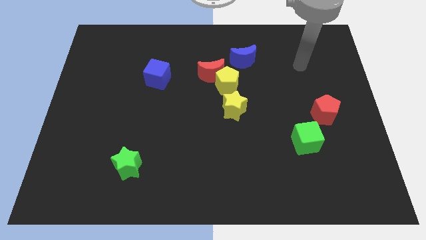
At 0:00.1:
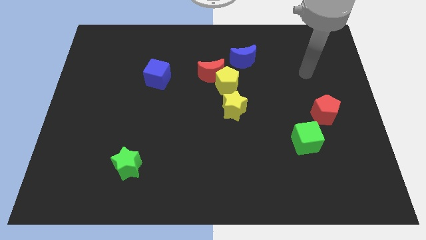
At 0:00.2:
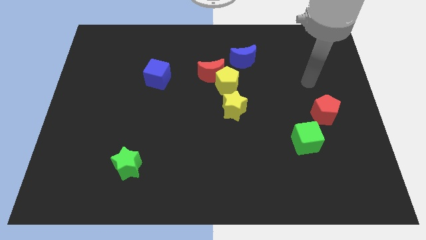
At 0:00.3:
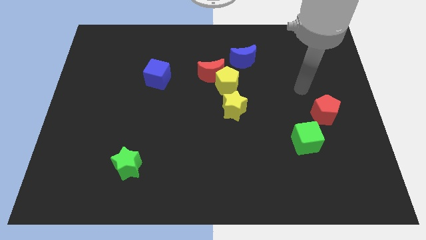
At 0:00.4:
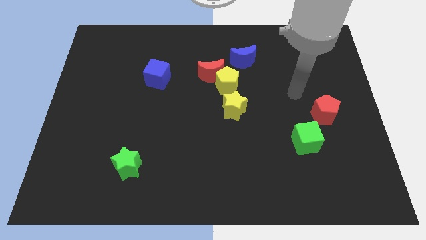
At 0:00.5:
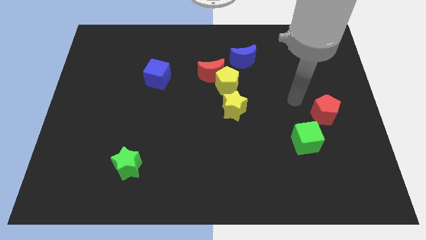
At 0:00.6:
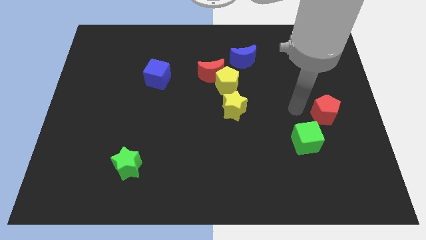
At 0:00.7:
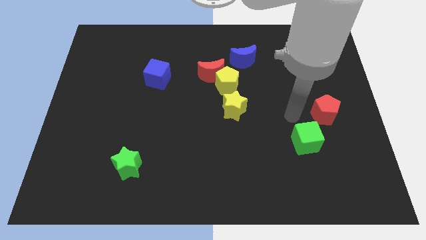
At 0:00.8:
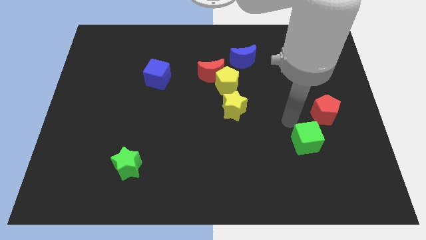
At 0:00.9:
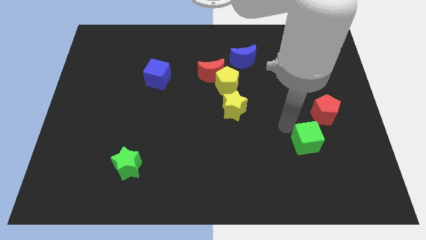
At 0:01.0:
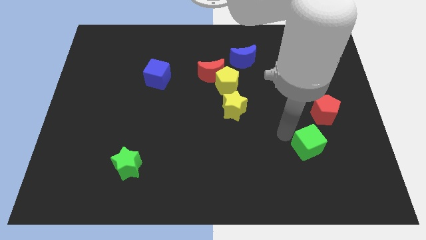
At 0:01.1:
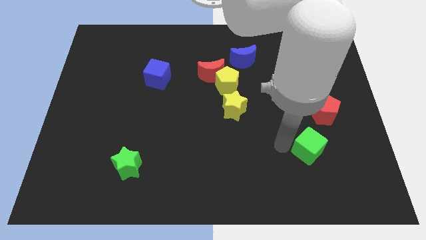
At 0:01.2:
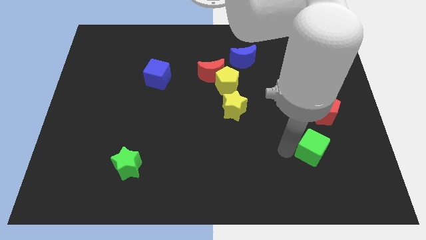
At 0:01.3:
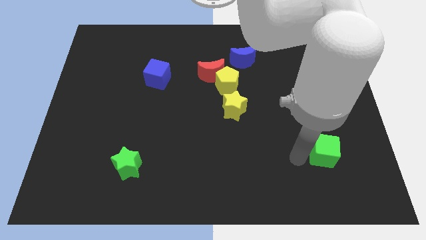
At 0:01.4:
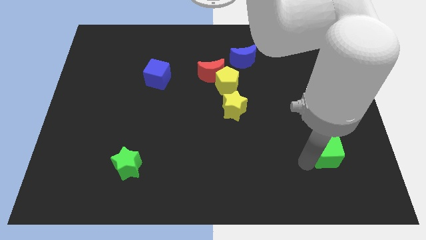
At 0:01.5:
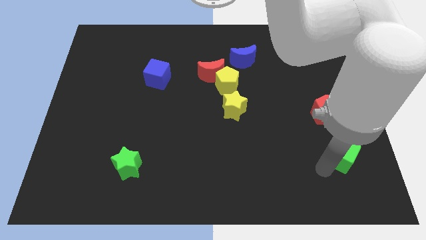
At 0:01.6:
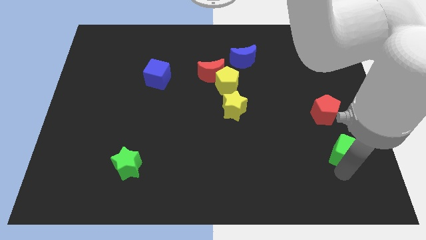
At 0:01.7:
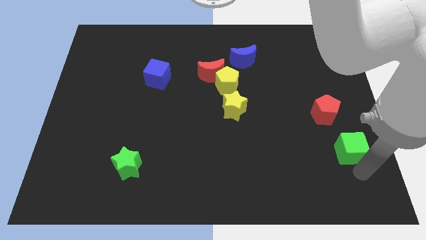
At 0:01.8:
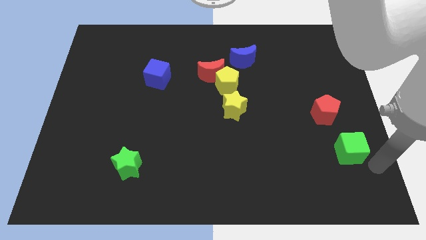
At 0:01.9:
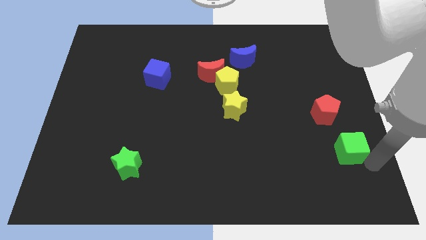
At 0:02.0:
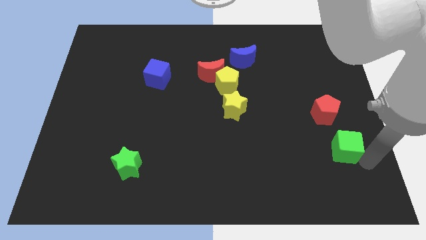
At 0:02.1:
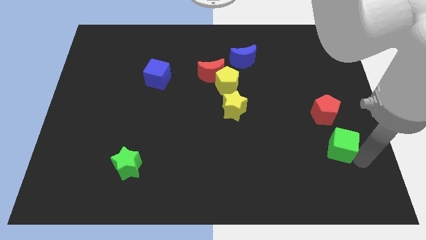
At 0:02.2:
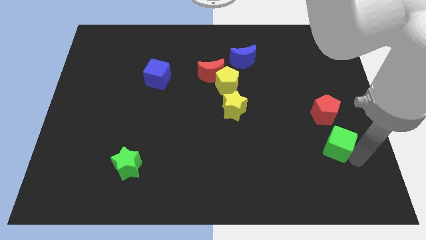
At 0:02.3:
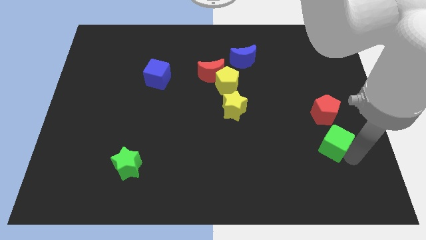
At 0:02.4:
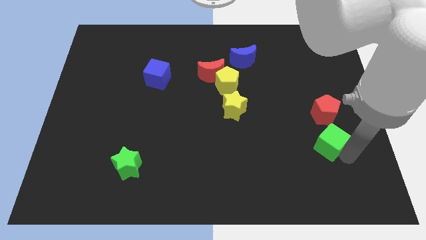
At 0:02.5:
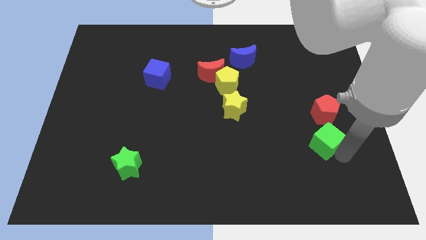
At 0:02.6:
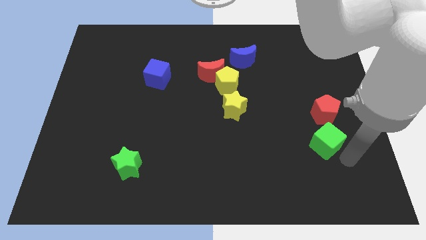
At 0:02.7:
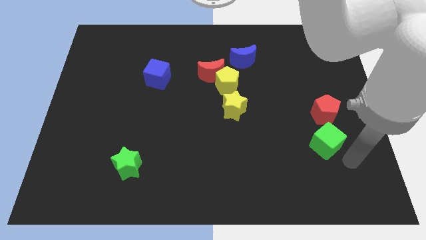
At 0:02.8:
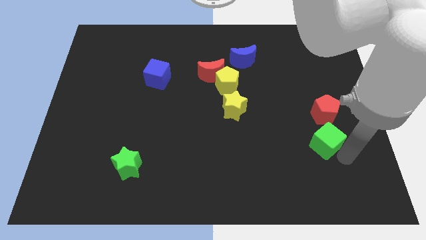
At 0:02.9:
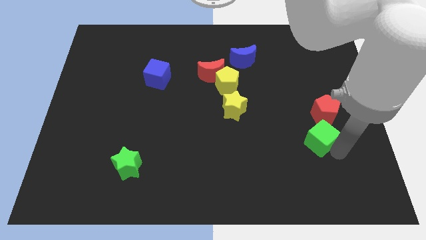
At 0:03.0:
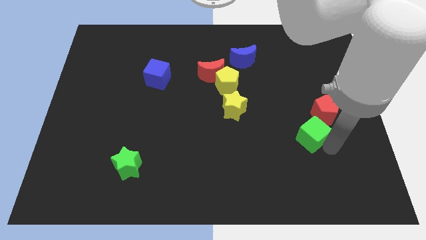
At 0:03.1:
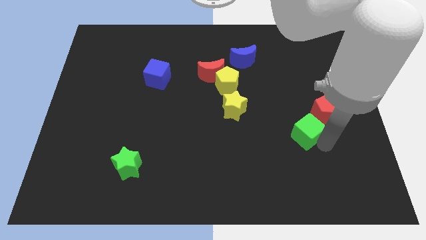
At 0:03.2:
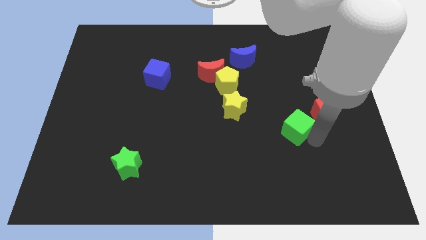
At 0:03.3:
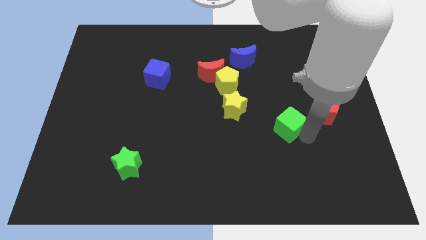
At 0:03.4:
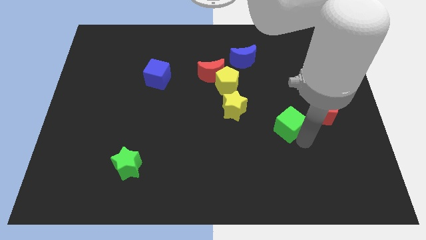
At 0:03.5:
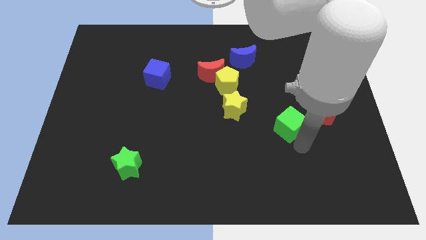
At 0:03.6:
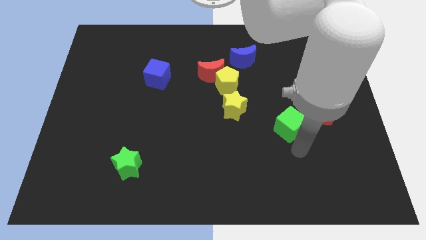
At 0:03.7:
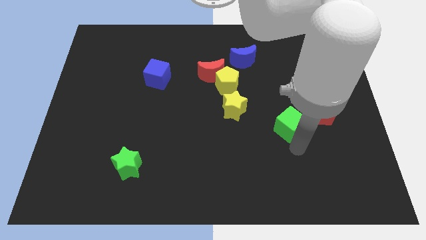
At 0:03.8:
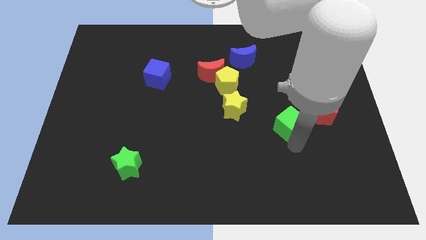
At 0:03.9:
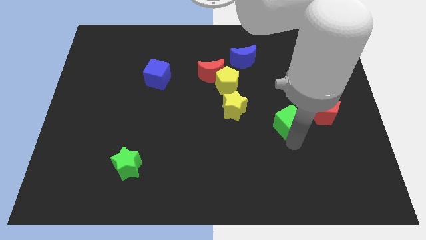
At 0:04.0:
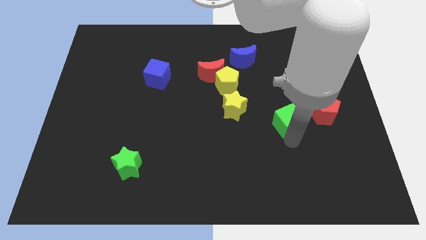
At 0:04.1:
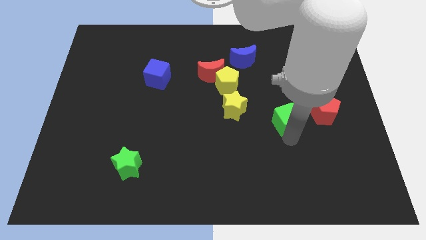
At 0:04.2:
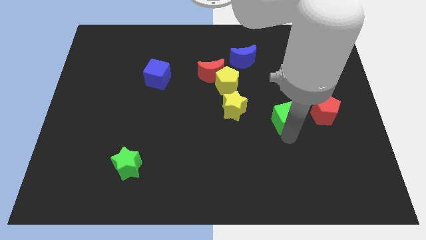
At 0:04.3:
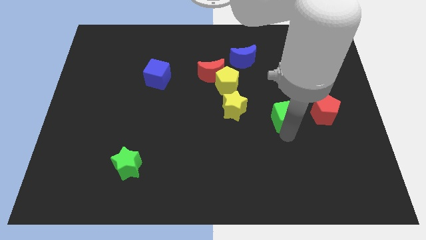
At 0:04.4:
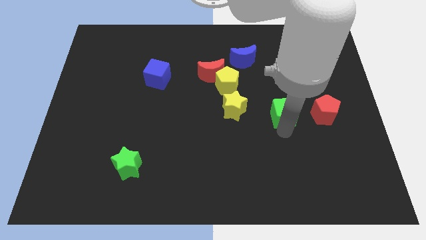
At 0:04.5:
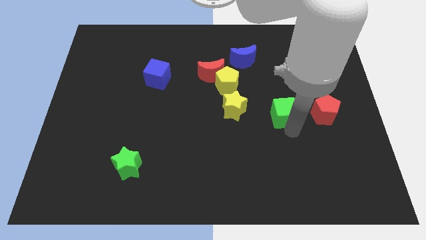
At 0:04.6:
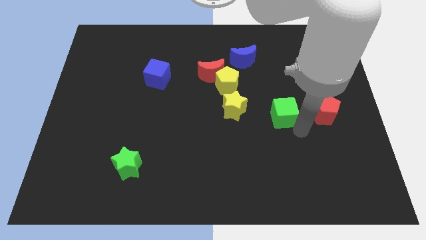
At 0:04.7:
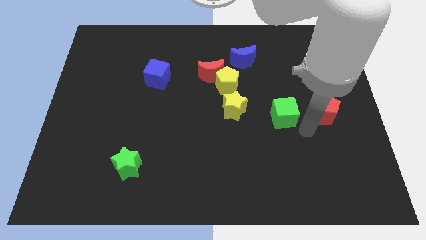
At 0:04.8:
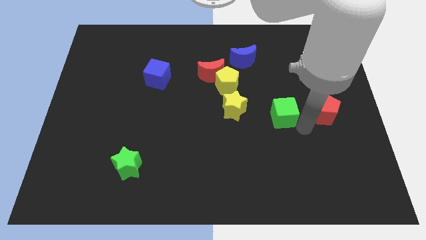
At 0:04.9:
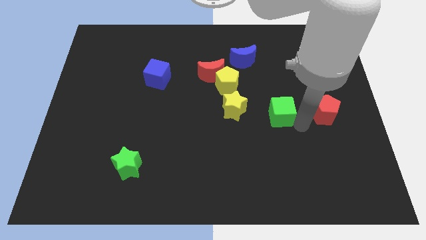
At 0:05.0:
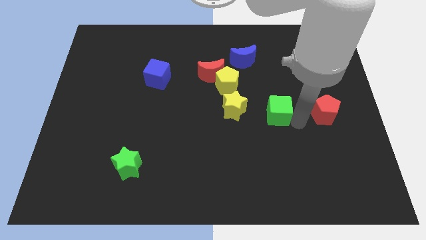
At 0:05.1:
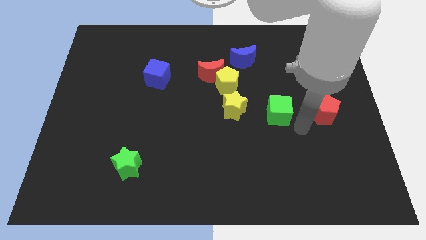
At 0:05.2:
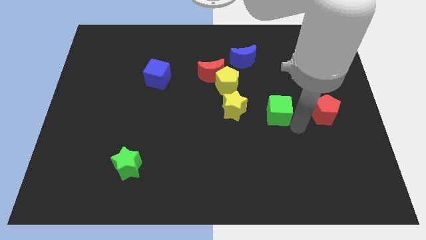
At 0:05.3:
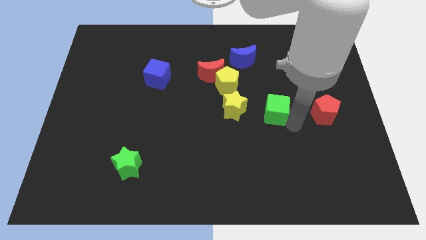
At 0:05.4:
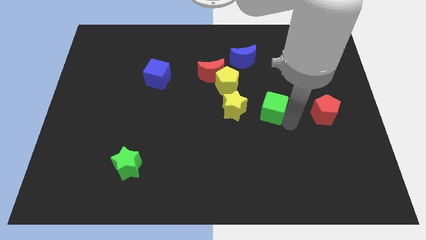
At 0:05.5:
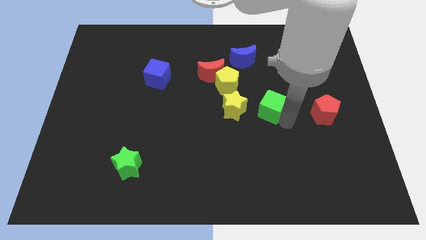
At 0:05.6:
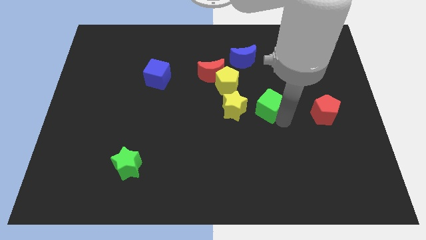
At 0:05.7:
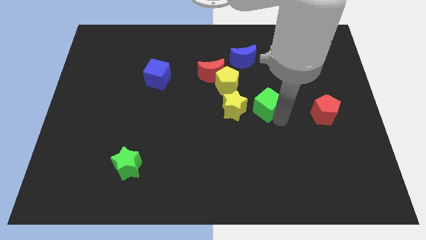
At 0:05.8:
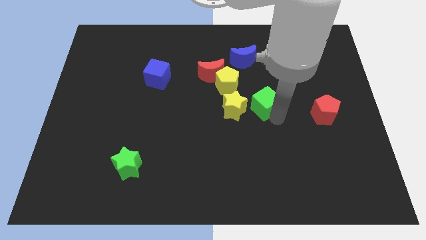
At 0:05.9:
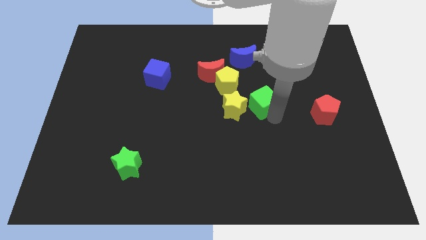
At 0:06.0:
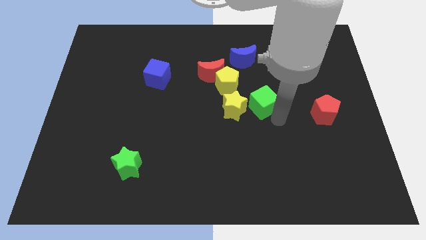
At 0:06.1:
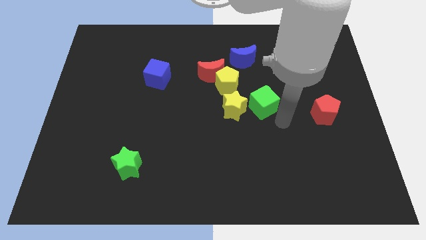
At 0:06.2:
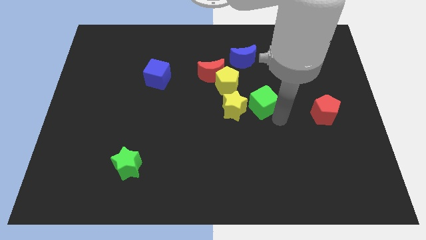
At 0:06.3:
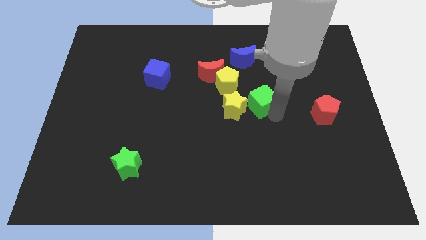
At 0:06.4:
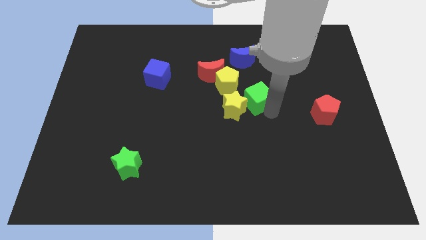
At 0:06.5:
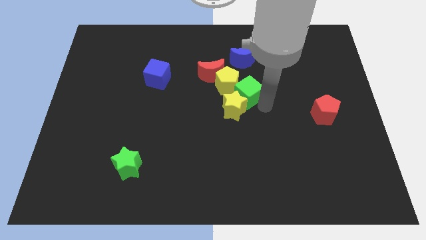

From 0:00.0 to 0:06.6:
move the green cube towards the yellow pentagon

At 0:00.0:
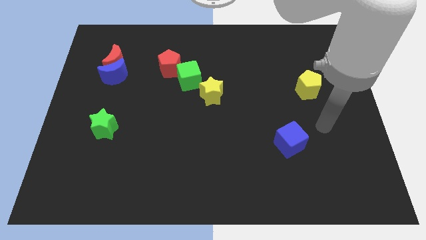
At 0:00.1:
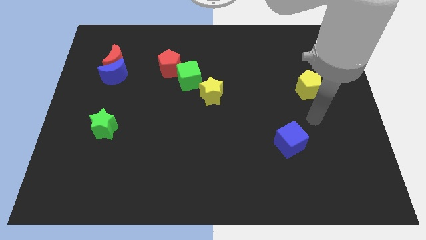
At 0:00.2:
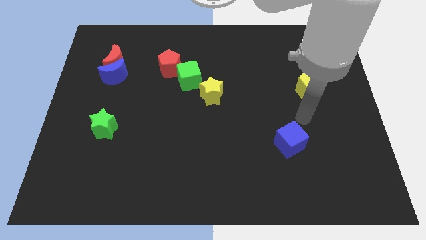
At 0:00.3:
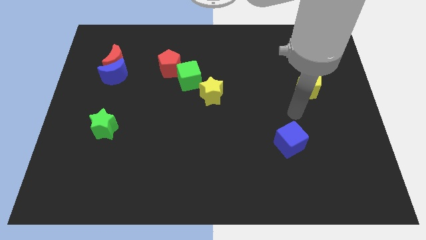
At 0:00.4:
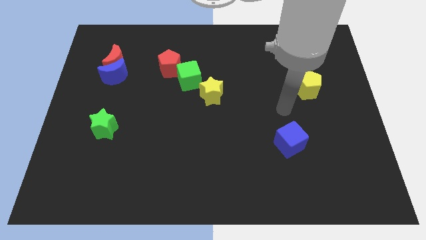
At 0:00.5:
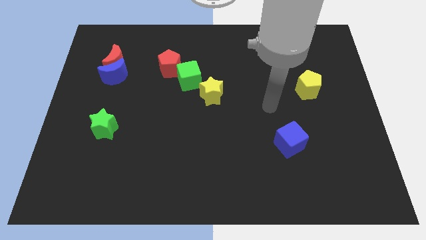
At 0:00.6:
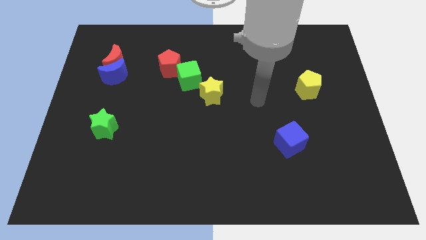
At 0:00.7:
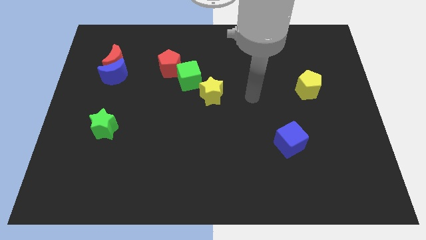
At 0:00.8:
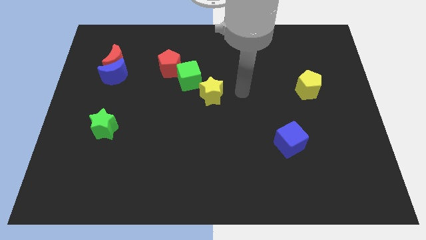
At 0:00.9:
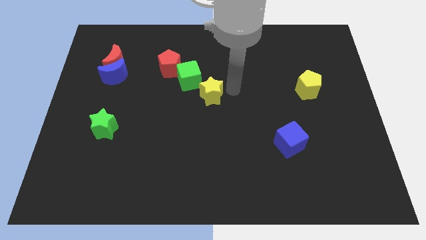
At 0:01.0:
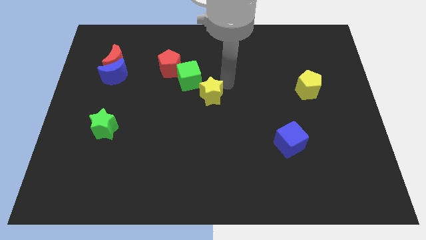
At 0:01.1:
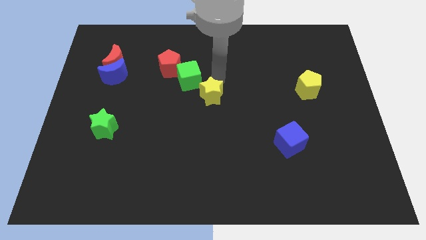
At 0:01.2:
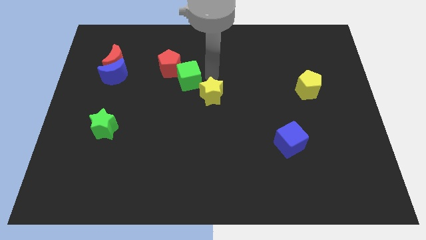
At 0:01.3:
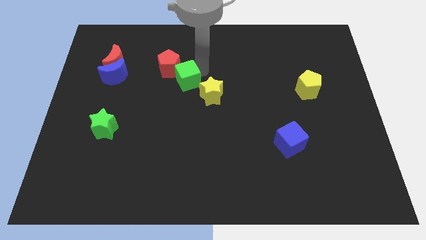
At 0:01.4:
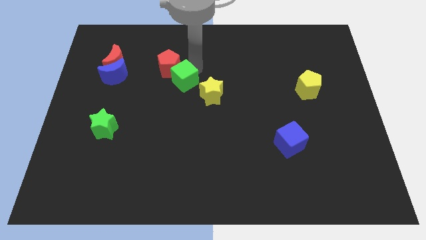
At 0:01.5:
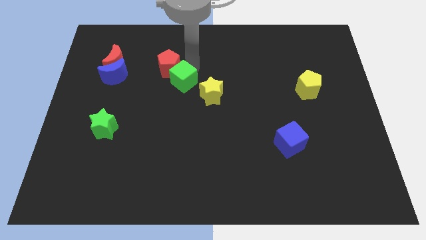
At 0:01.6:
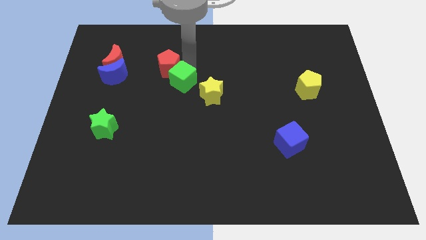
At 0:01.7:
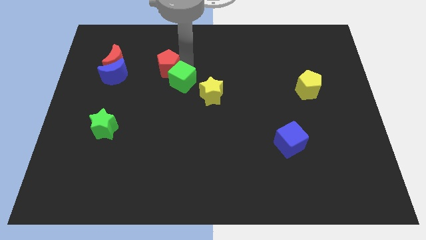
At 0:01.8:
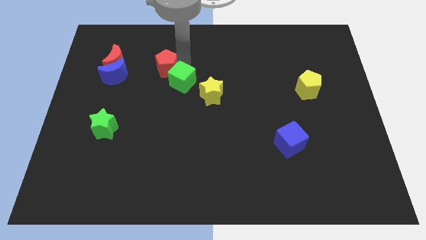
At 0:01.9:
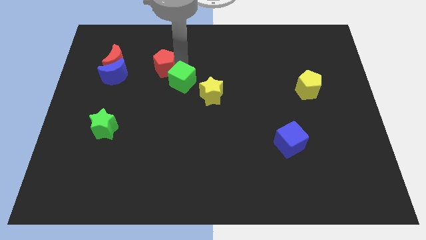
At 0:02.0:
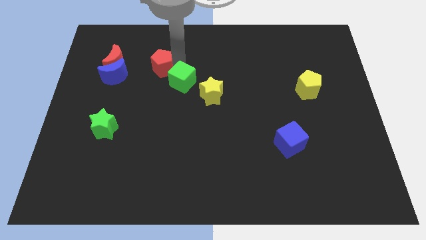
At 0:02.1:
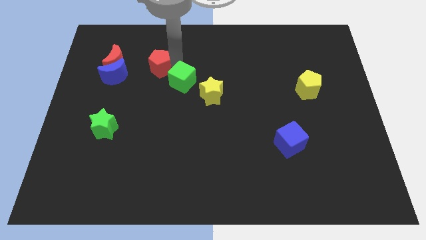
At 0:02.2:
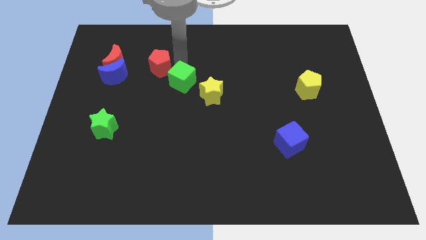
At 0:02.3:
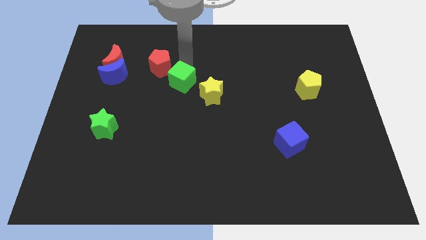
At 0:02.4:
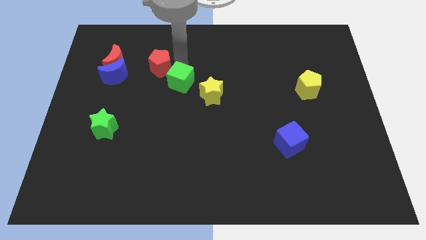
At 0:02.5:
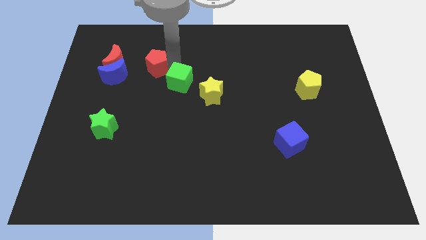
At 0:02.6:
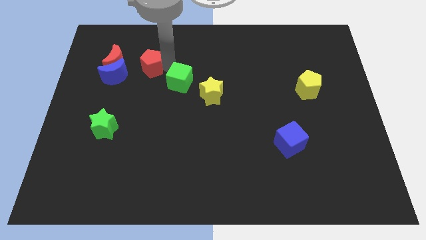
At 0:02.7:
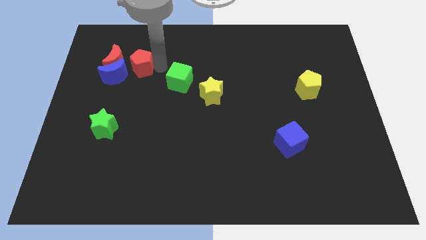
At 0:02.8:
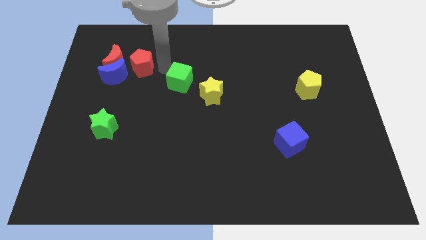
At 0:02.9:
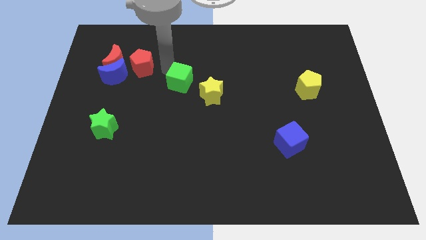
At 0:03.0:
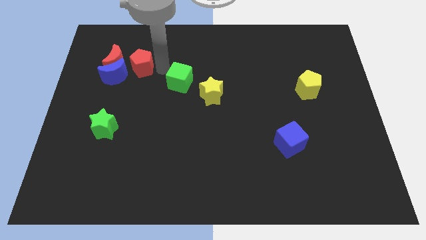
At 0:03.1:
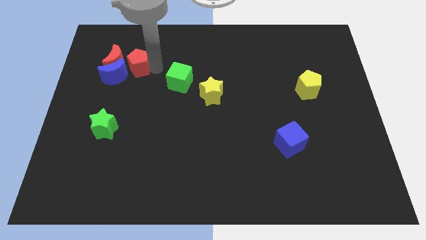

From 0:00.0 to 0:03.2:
move the red pentagon close to the red moon
